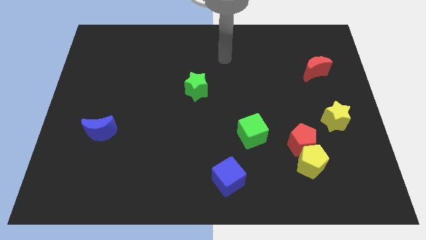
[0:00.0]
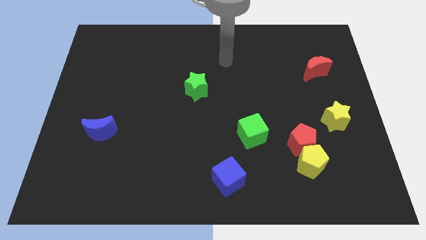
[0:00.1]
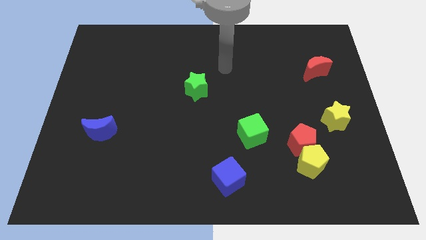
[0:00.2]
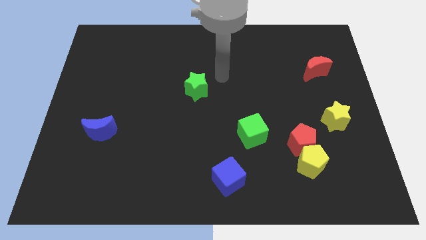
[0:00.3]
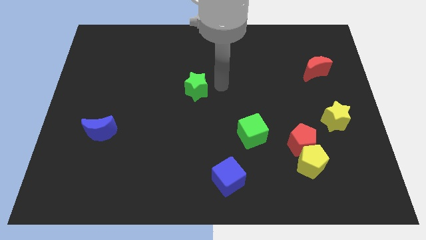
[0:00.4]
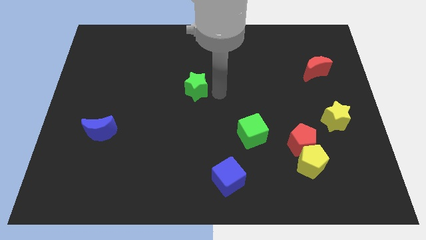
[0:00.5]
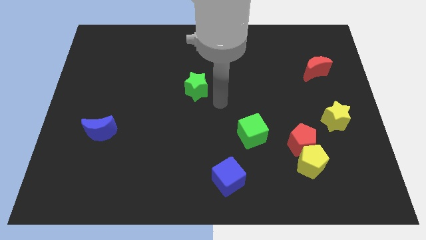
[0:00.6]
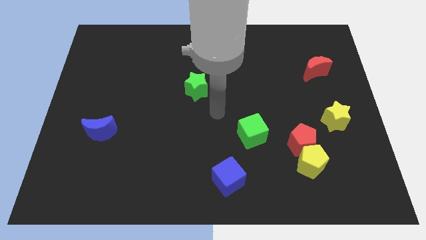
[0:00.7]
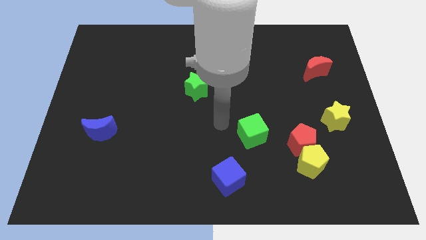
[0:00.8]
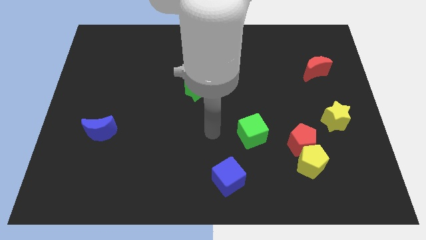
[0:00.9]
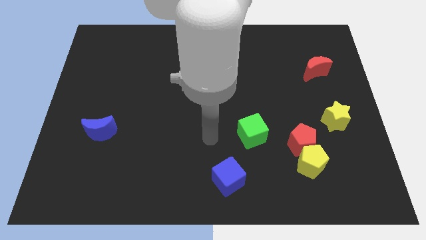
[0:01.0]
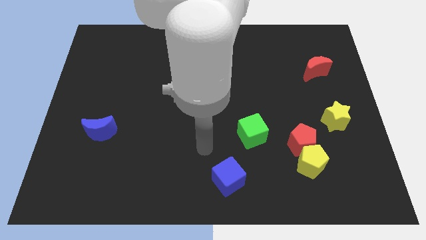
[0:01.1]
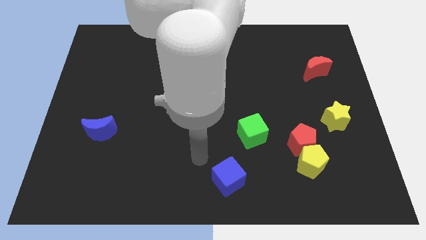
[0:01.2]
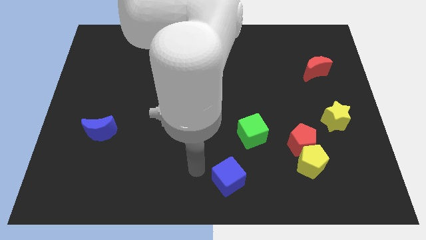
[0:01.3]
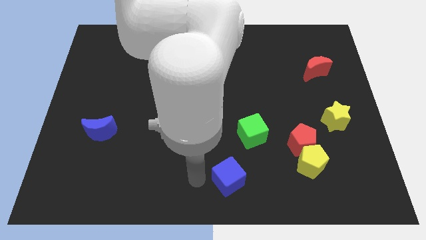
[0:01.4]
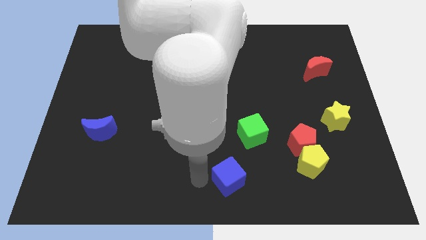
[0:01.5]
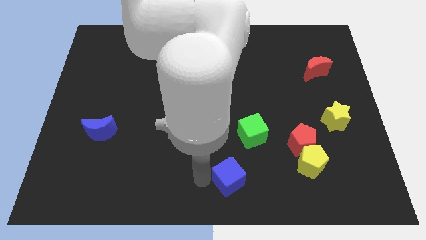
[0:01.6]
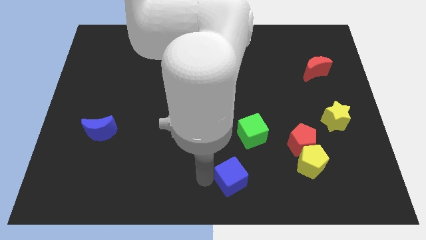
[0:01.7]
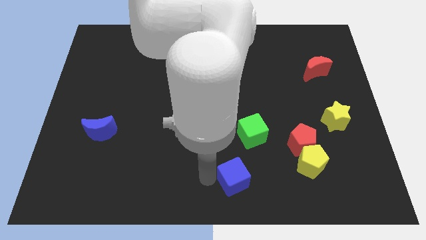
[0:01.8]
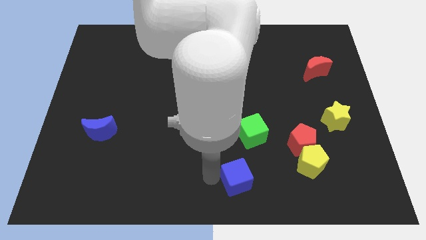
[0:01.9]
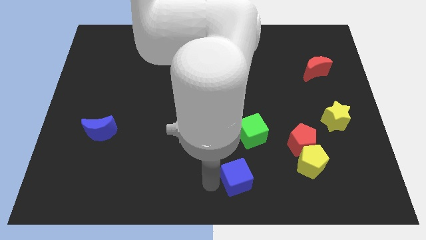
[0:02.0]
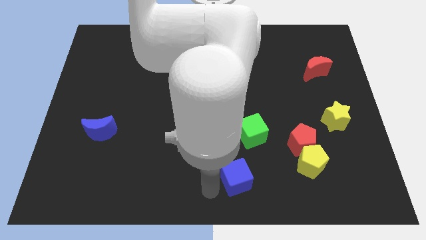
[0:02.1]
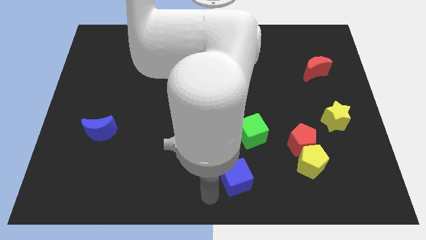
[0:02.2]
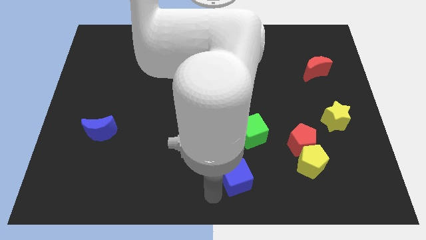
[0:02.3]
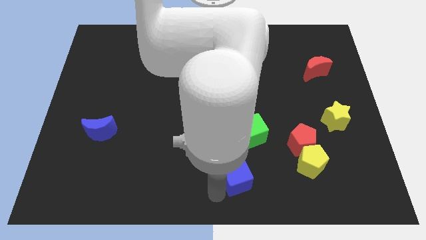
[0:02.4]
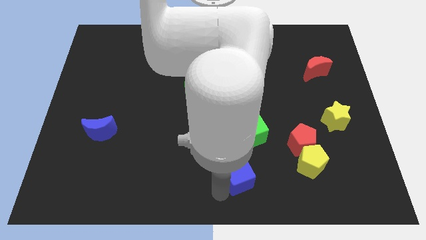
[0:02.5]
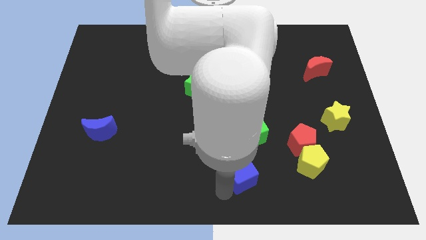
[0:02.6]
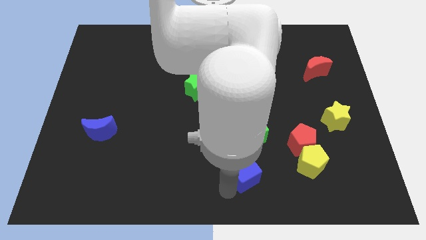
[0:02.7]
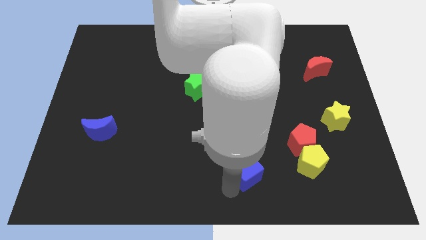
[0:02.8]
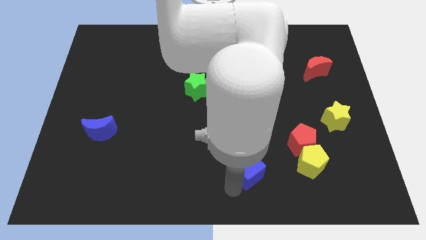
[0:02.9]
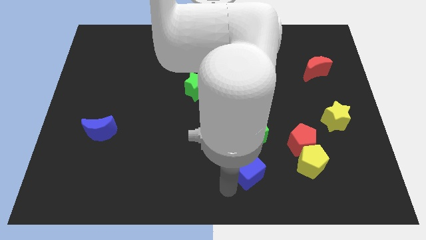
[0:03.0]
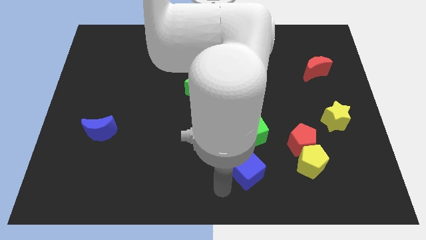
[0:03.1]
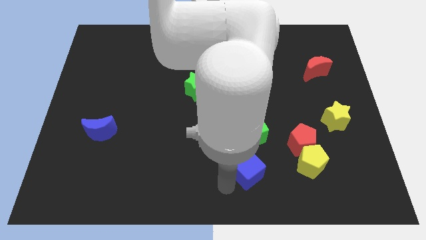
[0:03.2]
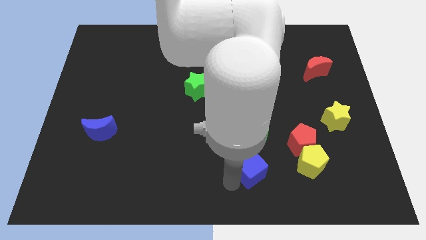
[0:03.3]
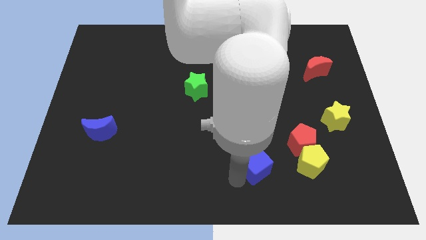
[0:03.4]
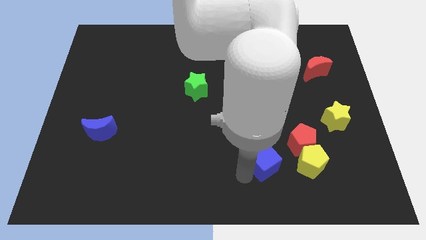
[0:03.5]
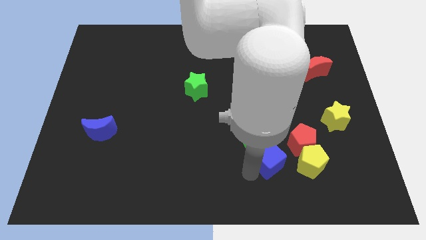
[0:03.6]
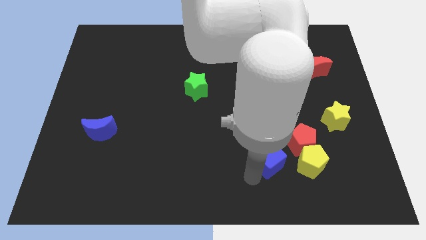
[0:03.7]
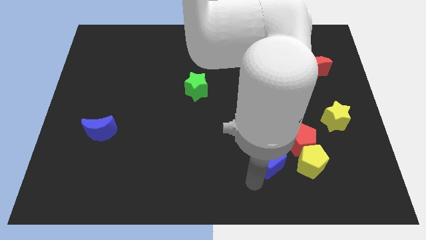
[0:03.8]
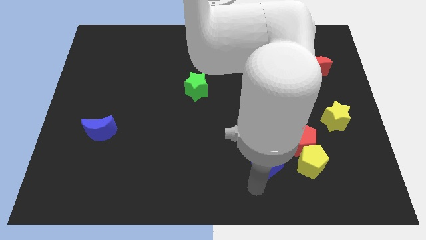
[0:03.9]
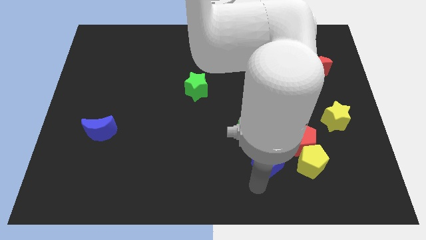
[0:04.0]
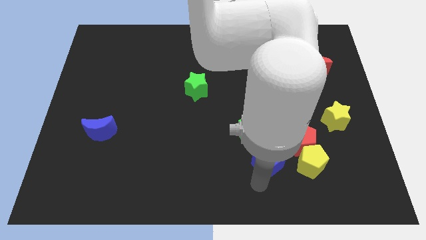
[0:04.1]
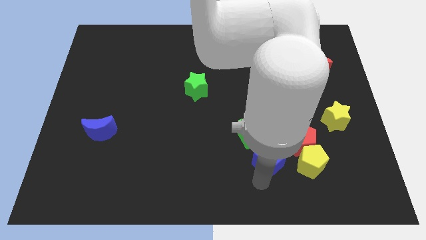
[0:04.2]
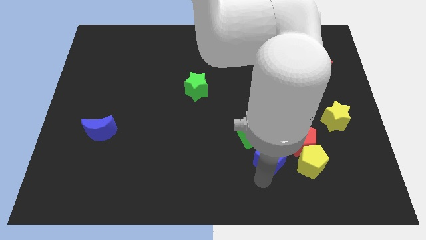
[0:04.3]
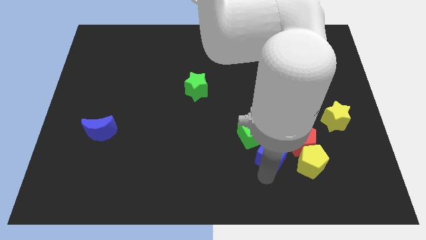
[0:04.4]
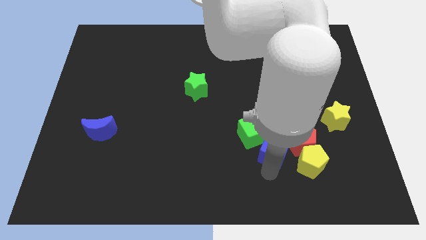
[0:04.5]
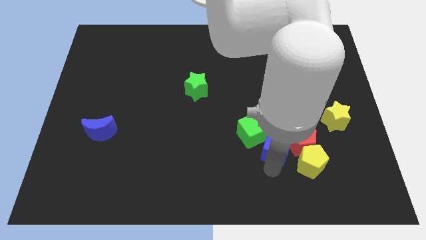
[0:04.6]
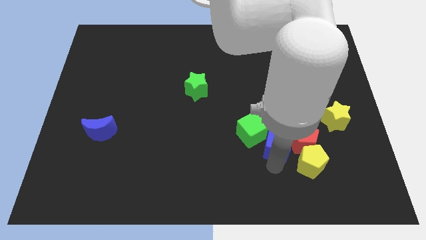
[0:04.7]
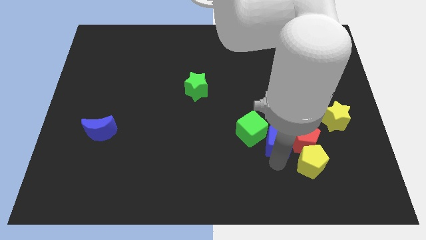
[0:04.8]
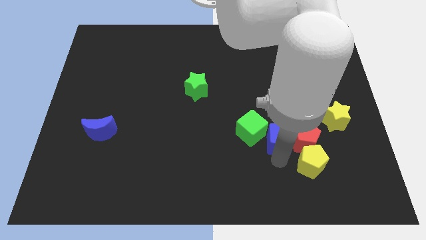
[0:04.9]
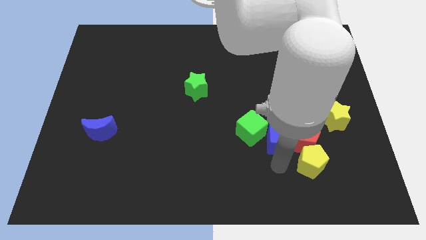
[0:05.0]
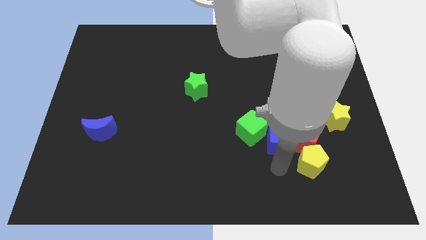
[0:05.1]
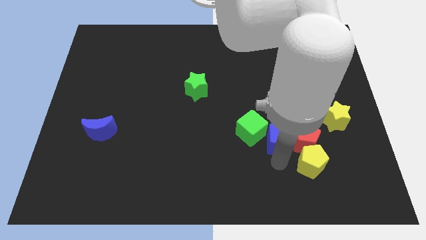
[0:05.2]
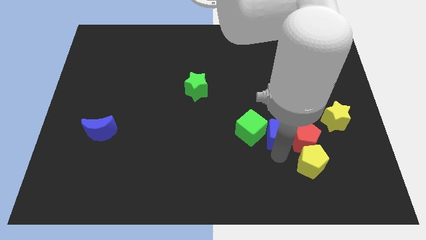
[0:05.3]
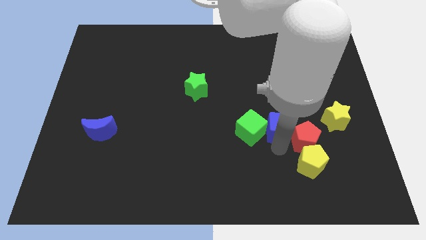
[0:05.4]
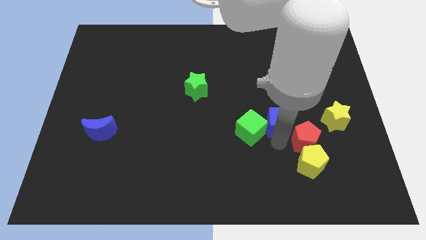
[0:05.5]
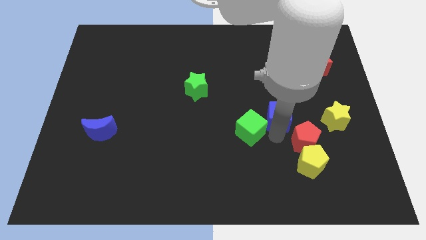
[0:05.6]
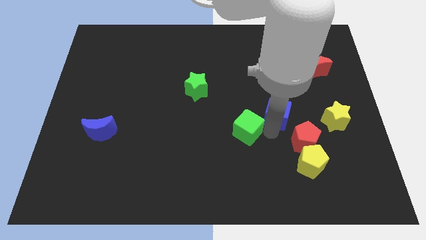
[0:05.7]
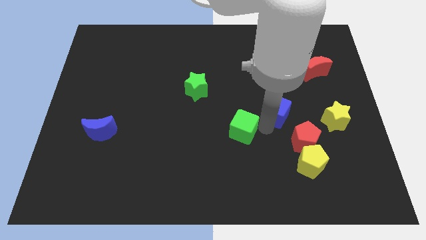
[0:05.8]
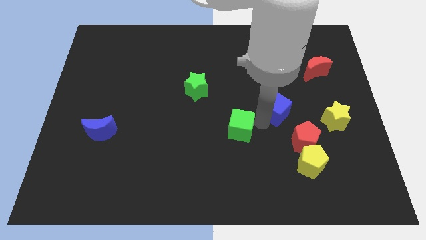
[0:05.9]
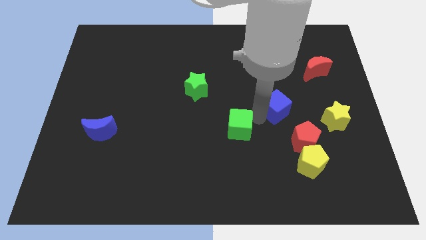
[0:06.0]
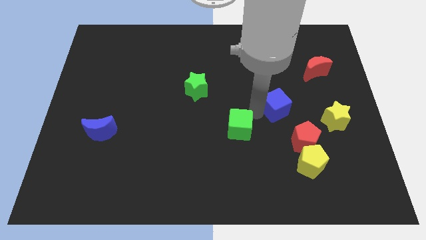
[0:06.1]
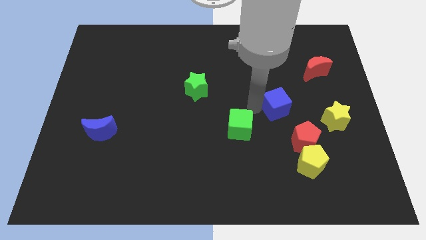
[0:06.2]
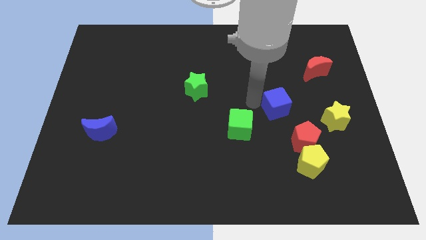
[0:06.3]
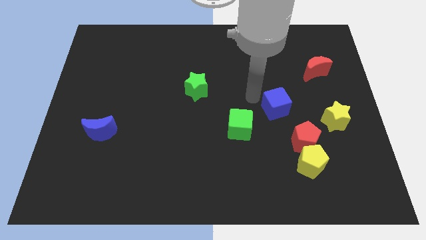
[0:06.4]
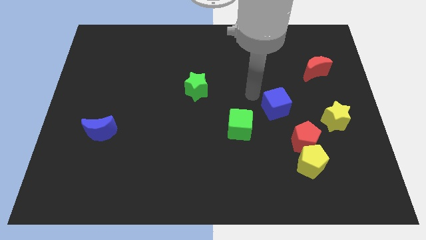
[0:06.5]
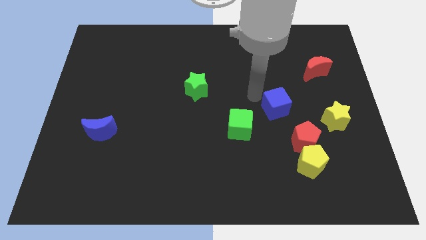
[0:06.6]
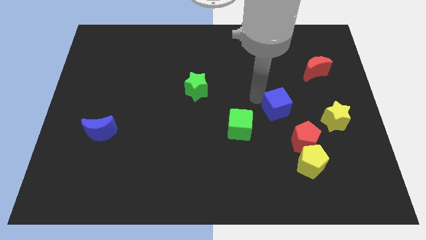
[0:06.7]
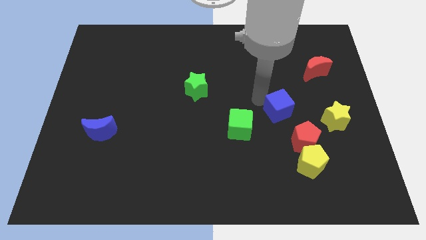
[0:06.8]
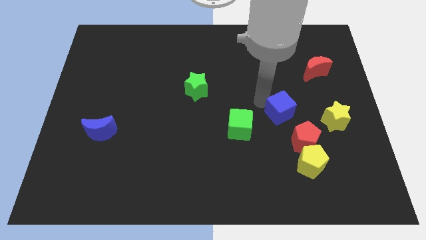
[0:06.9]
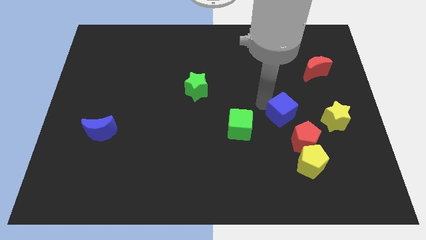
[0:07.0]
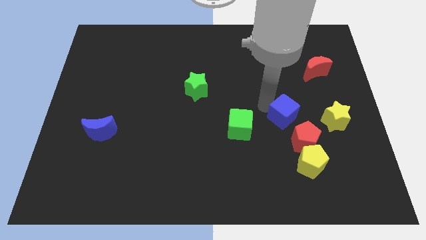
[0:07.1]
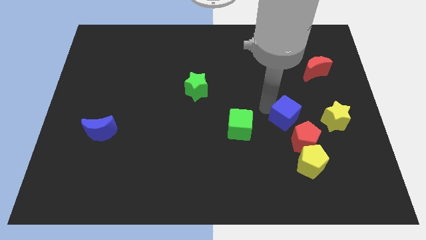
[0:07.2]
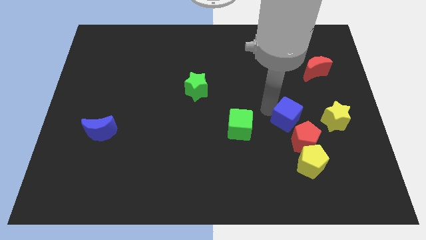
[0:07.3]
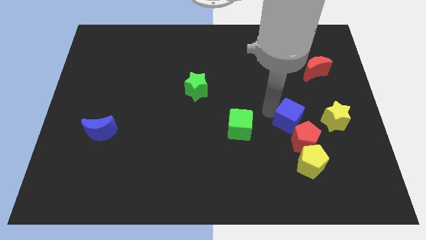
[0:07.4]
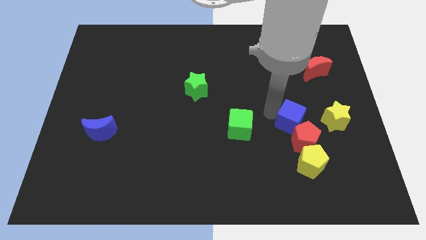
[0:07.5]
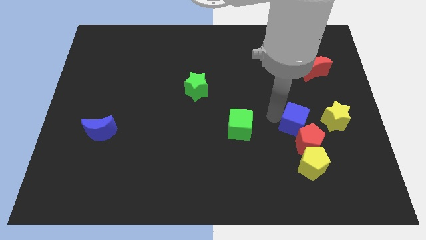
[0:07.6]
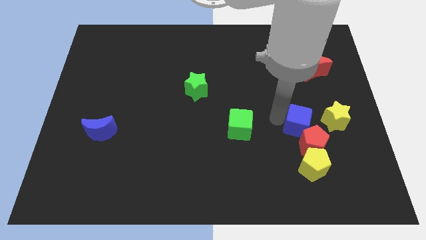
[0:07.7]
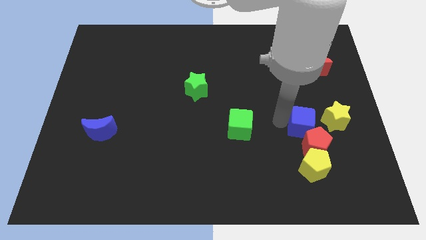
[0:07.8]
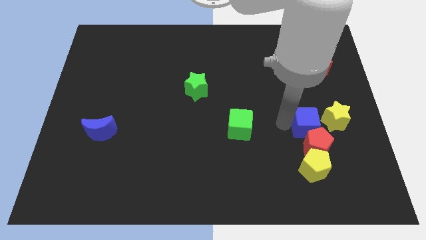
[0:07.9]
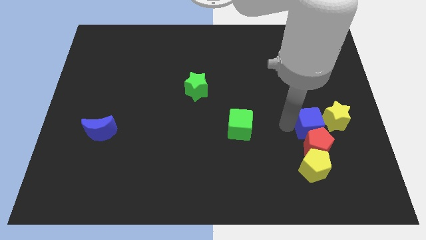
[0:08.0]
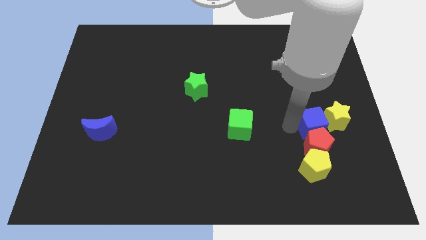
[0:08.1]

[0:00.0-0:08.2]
push the blue cube to the yellow star
